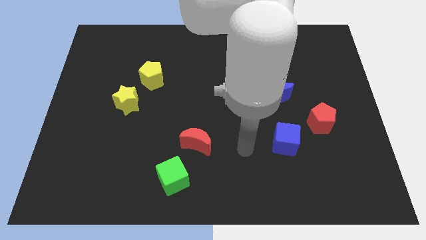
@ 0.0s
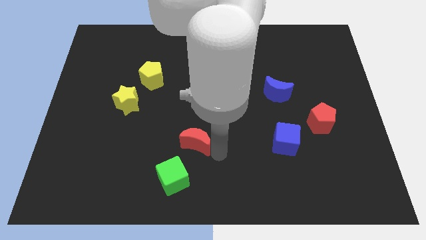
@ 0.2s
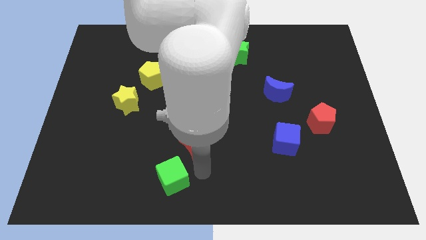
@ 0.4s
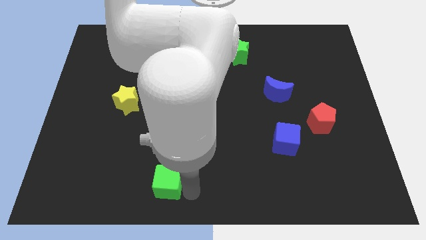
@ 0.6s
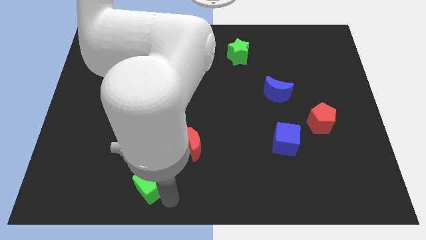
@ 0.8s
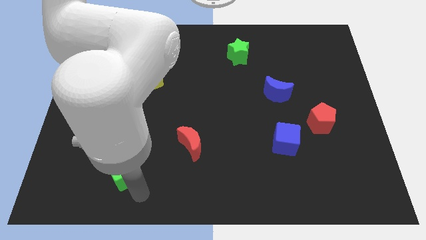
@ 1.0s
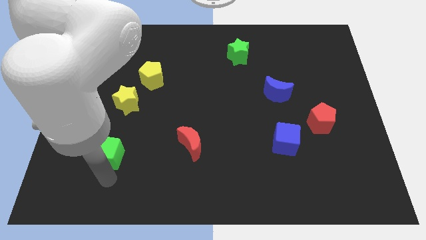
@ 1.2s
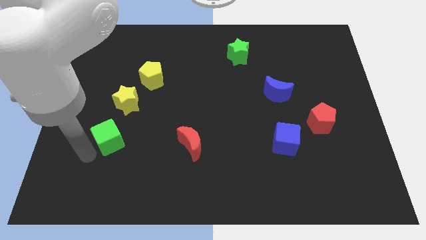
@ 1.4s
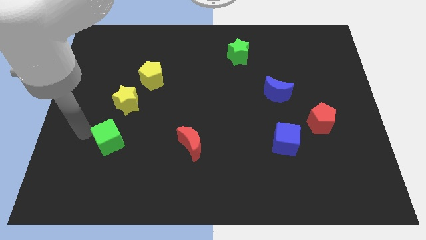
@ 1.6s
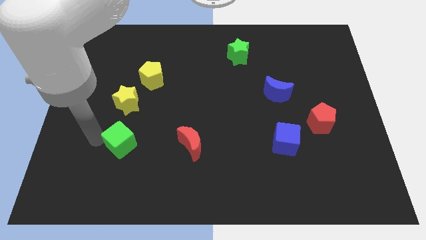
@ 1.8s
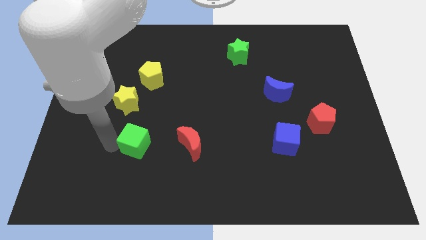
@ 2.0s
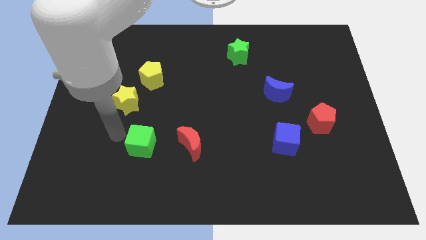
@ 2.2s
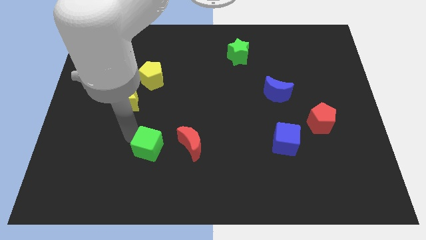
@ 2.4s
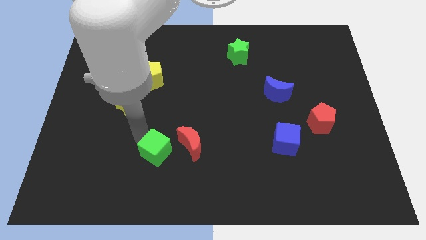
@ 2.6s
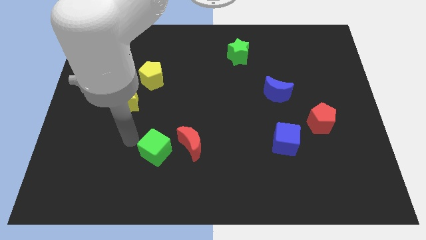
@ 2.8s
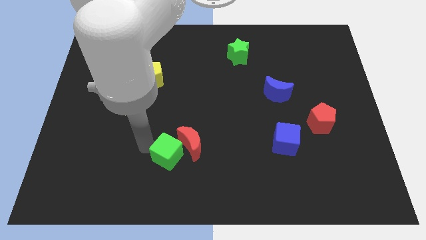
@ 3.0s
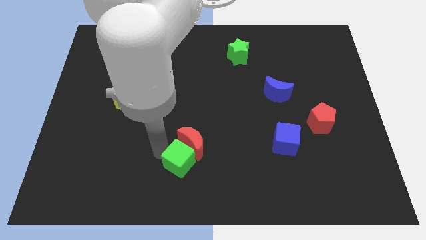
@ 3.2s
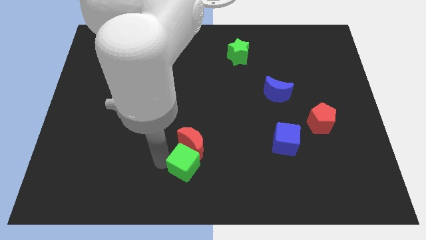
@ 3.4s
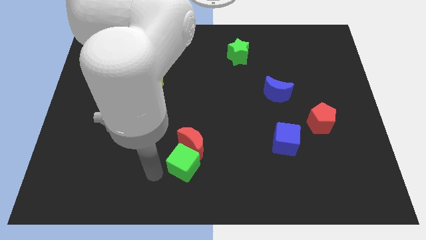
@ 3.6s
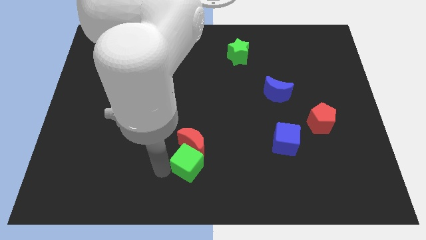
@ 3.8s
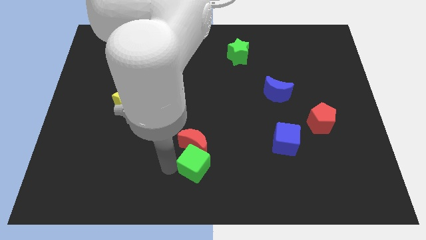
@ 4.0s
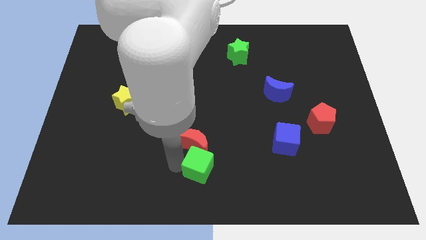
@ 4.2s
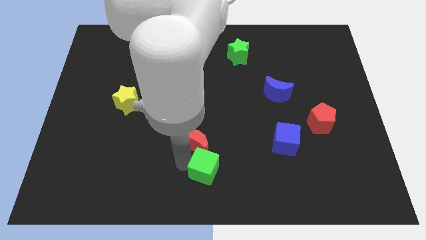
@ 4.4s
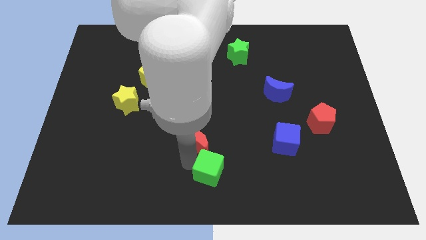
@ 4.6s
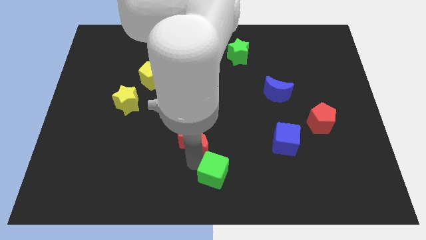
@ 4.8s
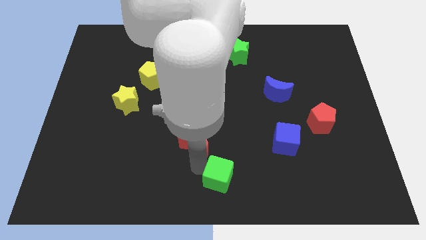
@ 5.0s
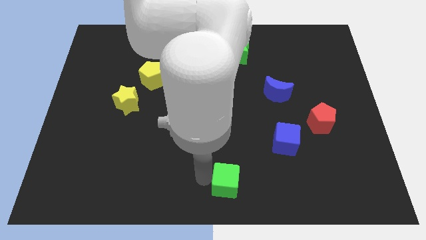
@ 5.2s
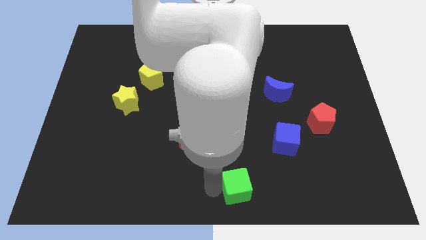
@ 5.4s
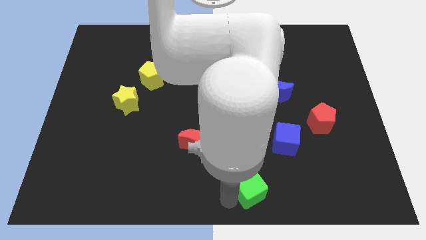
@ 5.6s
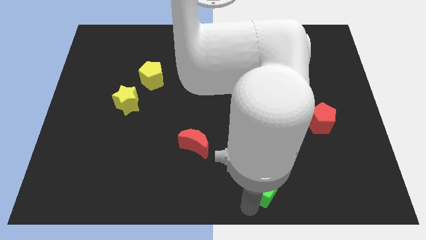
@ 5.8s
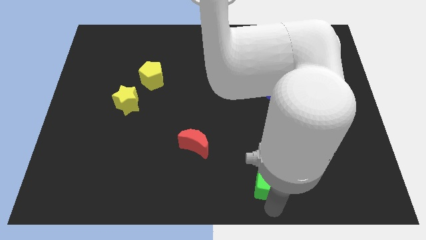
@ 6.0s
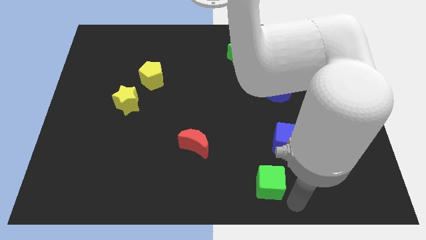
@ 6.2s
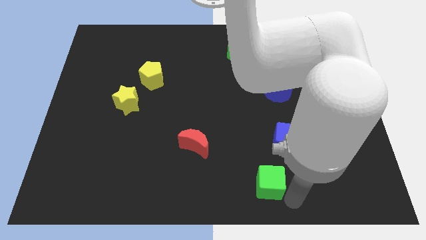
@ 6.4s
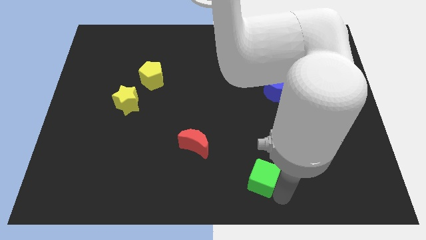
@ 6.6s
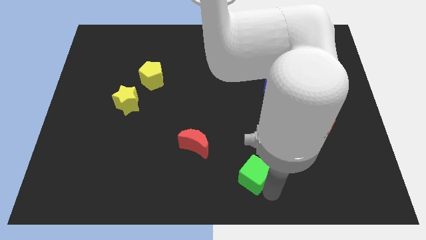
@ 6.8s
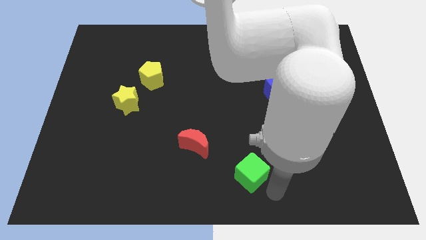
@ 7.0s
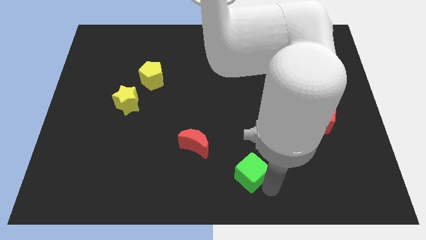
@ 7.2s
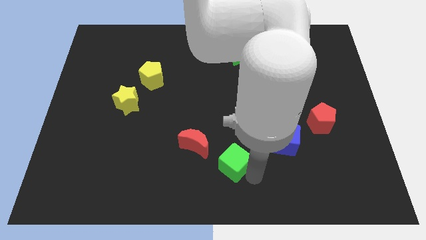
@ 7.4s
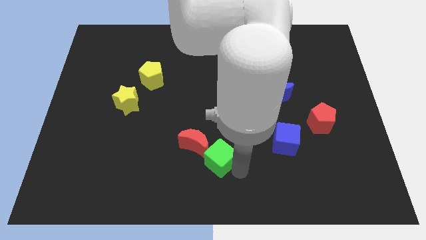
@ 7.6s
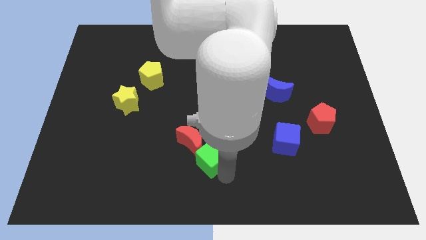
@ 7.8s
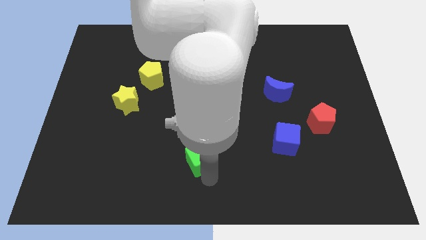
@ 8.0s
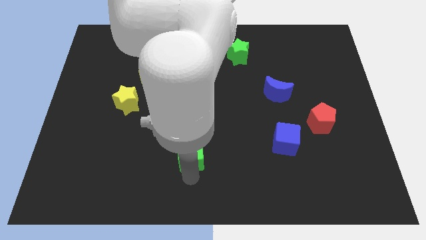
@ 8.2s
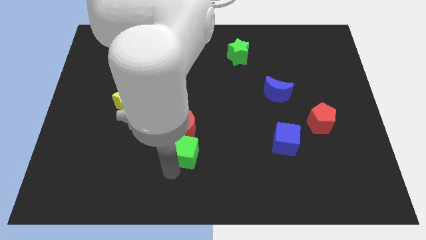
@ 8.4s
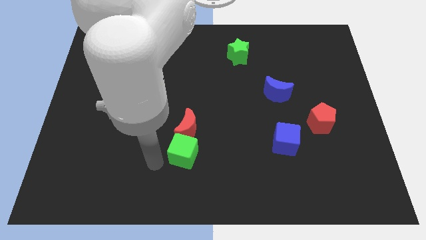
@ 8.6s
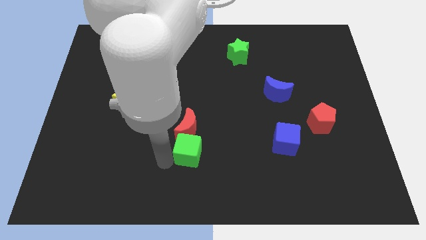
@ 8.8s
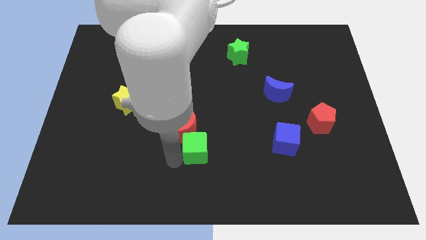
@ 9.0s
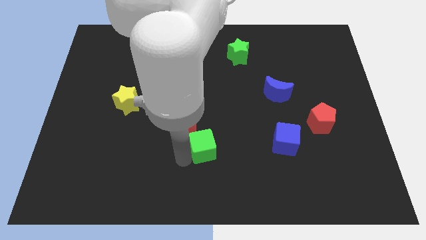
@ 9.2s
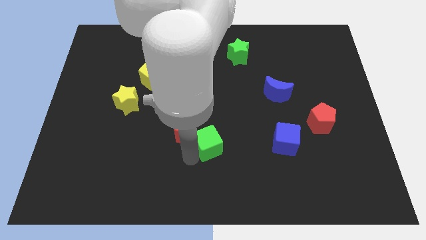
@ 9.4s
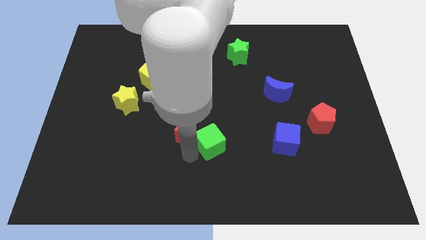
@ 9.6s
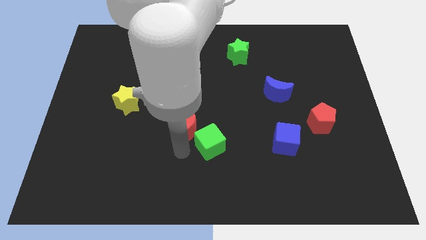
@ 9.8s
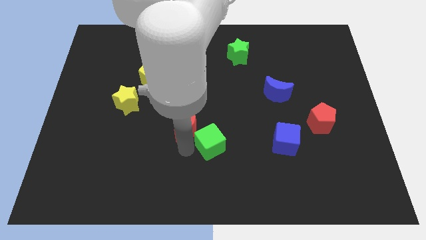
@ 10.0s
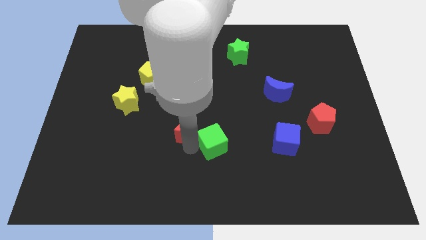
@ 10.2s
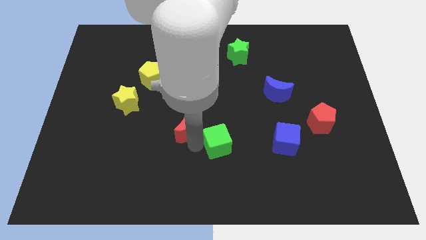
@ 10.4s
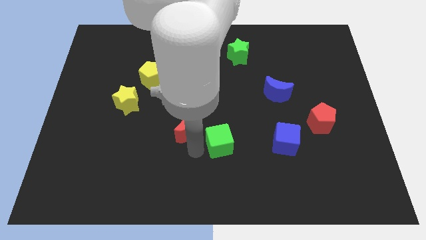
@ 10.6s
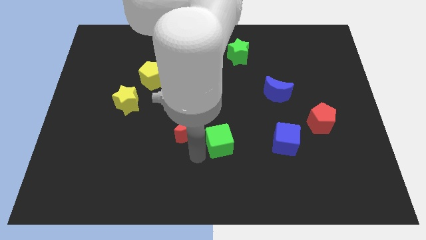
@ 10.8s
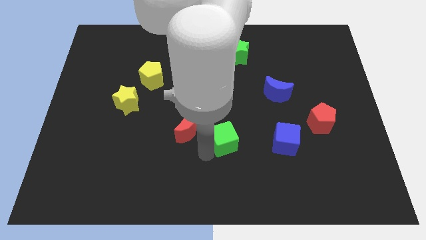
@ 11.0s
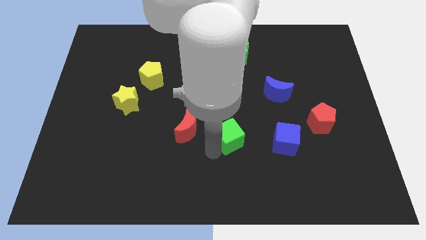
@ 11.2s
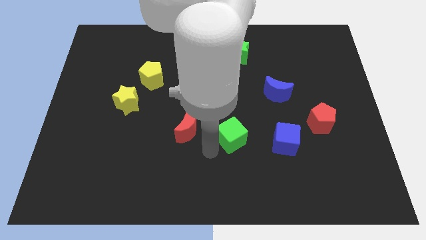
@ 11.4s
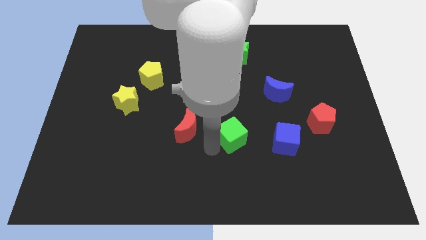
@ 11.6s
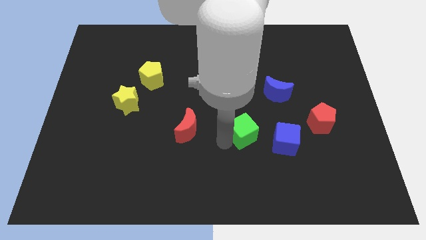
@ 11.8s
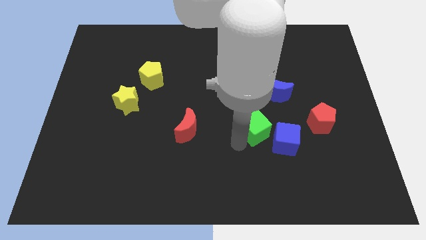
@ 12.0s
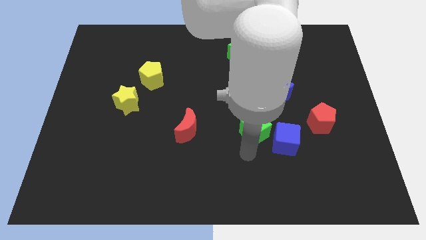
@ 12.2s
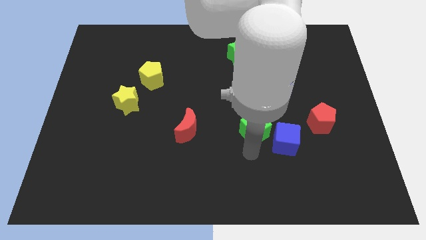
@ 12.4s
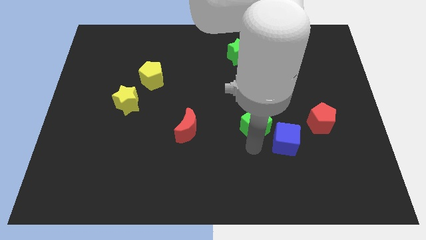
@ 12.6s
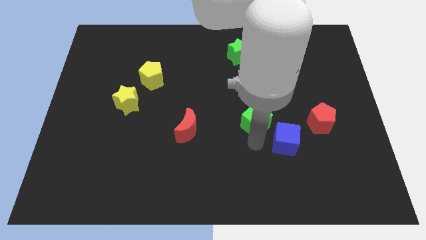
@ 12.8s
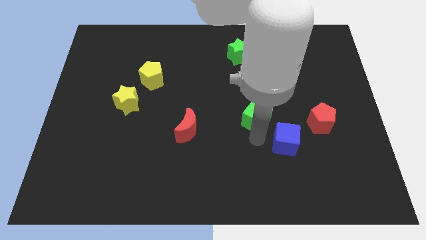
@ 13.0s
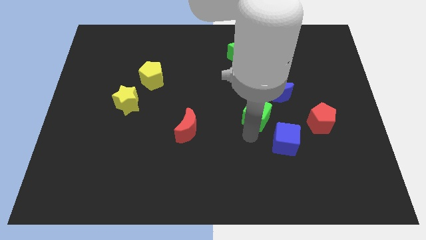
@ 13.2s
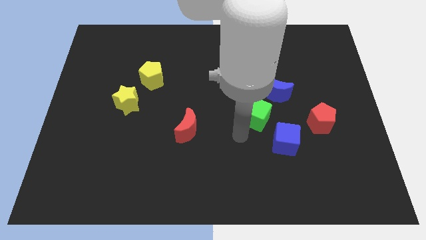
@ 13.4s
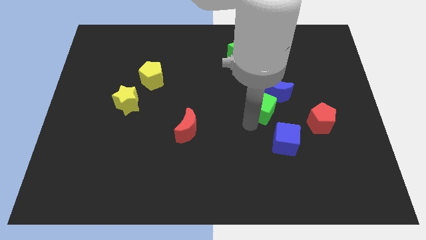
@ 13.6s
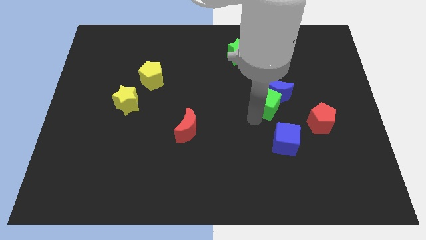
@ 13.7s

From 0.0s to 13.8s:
push the green cube towards the blue moon
